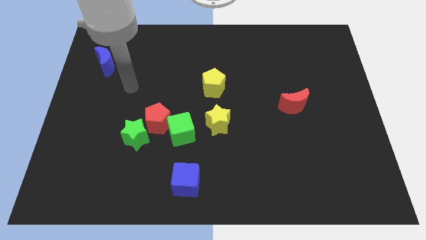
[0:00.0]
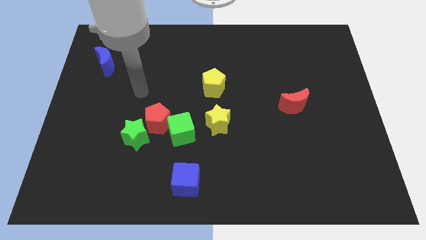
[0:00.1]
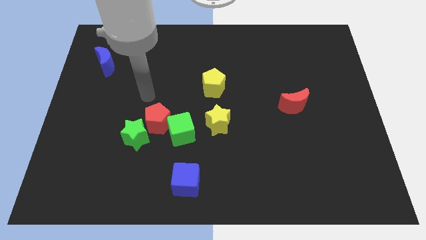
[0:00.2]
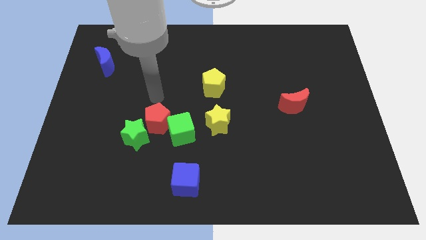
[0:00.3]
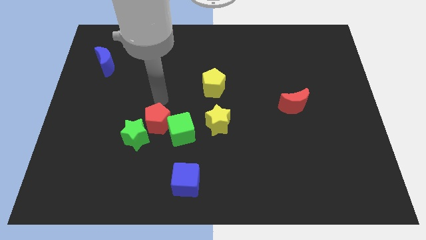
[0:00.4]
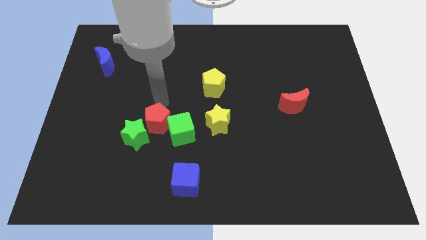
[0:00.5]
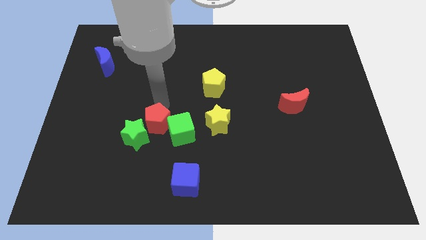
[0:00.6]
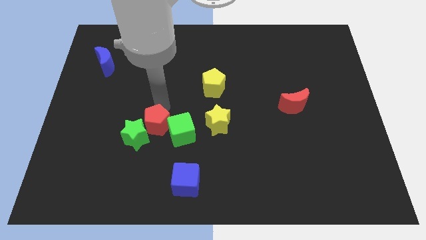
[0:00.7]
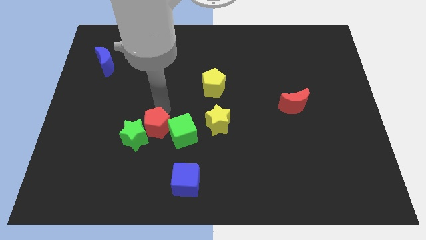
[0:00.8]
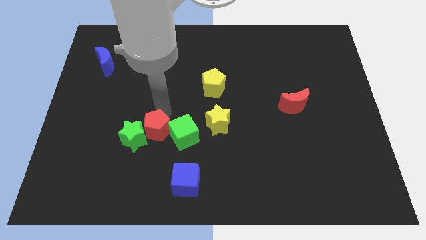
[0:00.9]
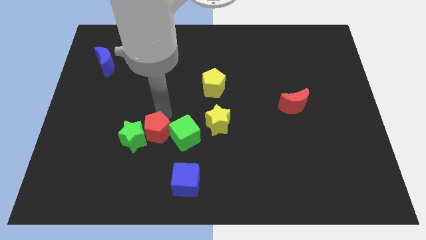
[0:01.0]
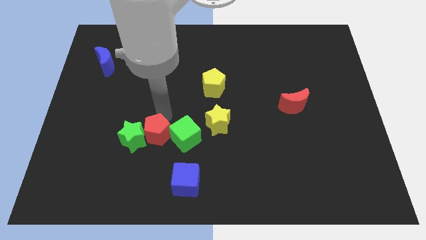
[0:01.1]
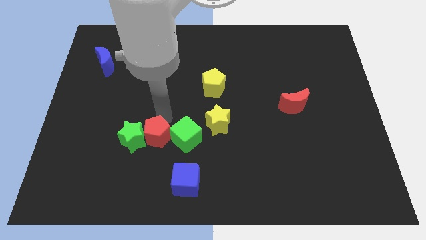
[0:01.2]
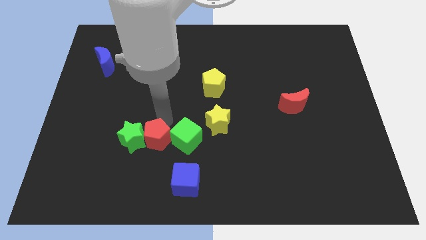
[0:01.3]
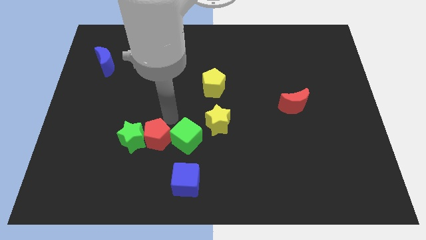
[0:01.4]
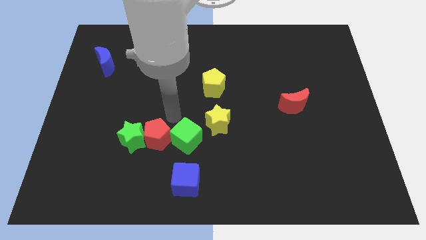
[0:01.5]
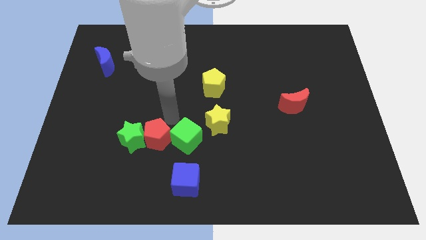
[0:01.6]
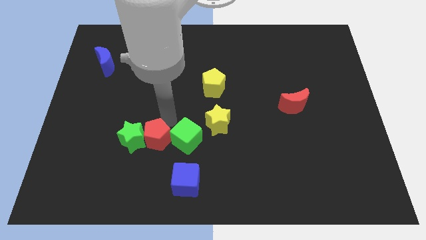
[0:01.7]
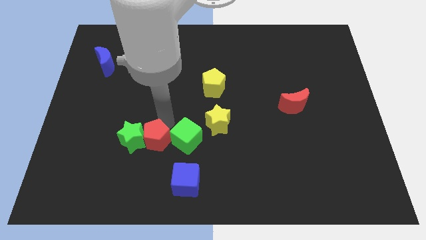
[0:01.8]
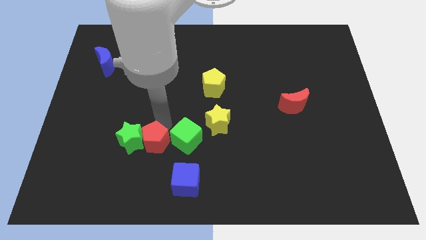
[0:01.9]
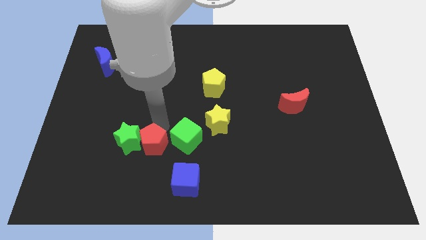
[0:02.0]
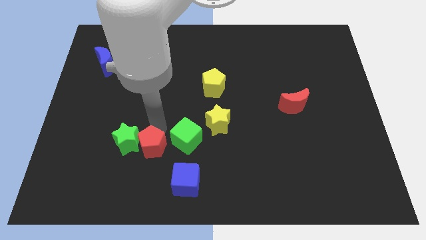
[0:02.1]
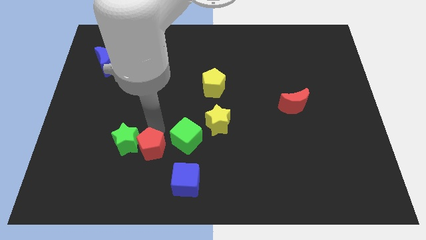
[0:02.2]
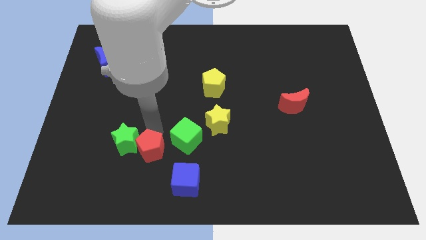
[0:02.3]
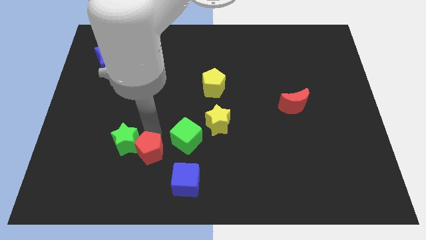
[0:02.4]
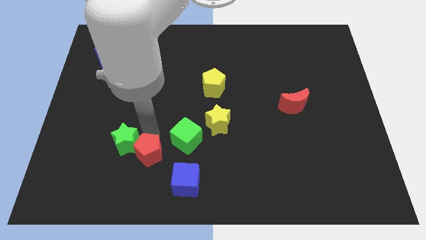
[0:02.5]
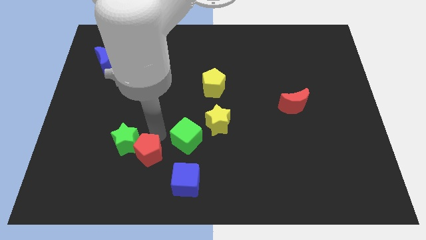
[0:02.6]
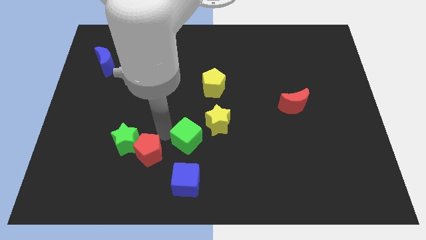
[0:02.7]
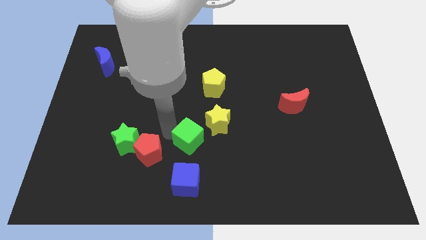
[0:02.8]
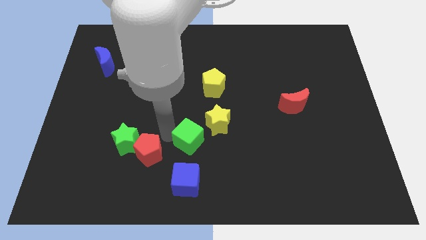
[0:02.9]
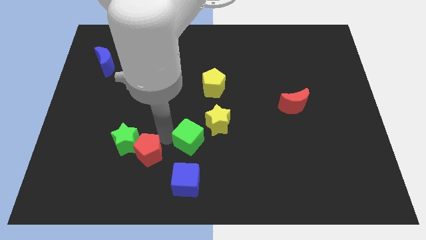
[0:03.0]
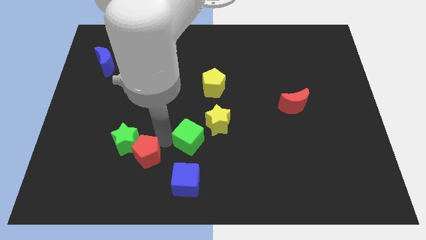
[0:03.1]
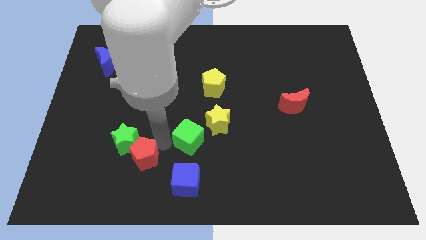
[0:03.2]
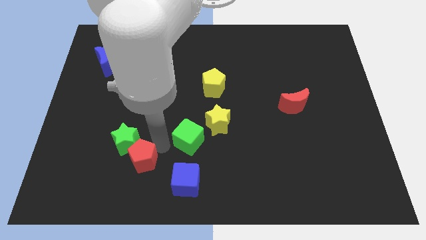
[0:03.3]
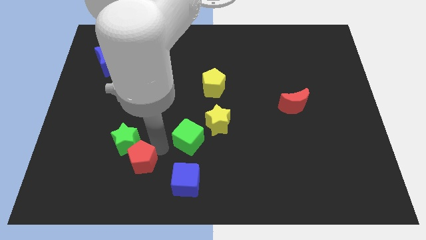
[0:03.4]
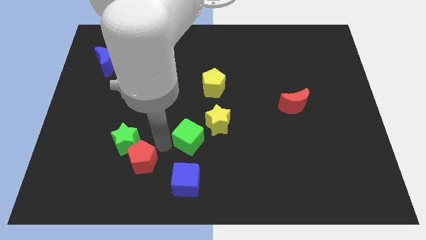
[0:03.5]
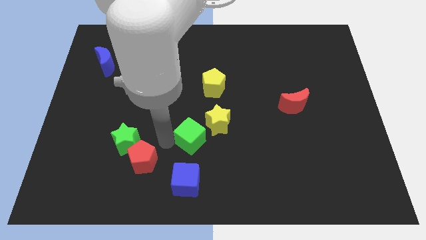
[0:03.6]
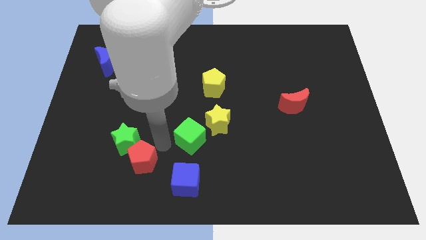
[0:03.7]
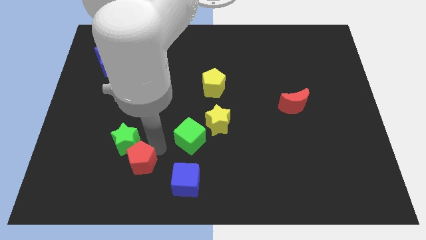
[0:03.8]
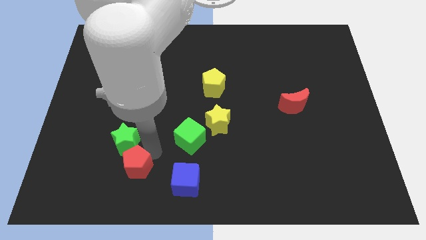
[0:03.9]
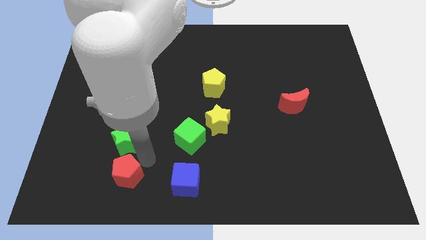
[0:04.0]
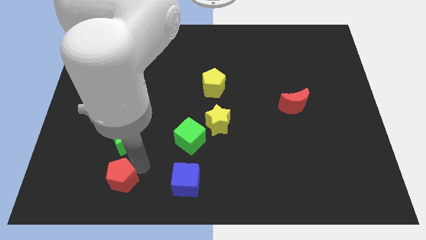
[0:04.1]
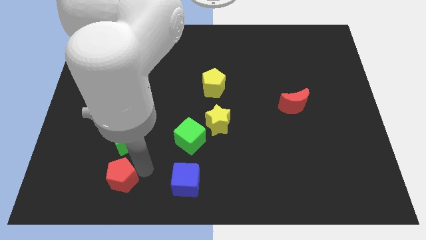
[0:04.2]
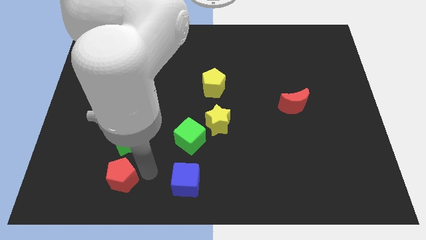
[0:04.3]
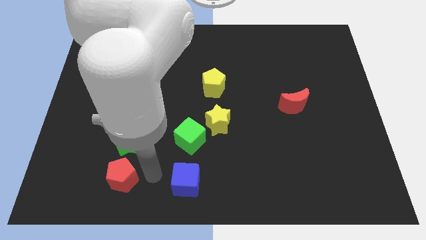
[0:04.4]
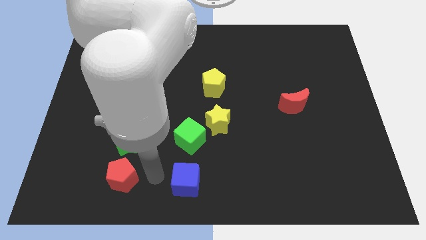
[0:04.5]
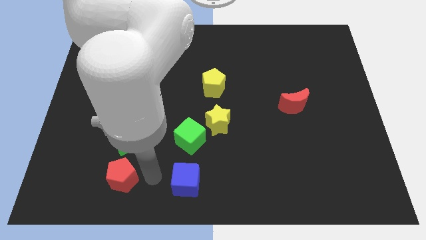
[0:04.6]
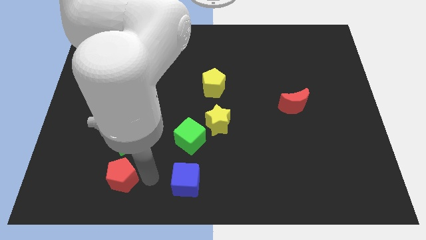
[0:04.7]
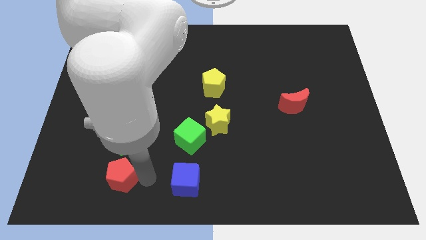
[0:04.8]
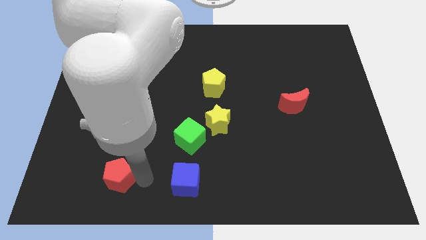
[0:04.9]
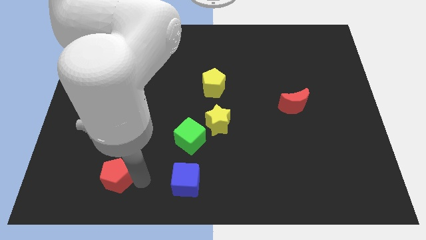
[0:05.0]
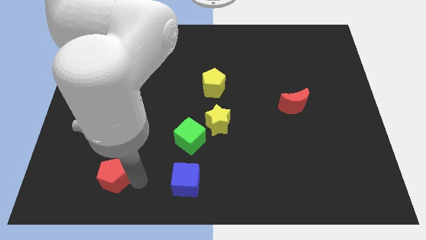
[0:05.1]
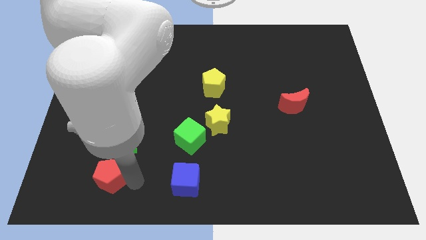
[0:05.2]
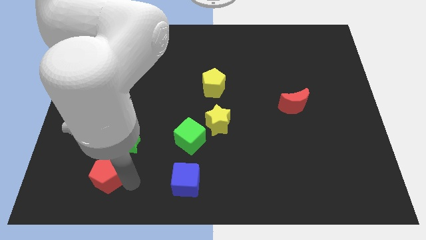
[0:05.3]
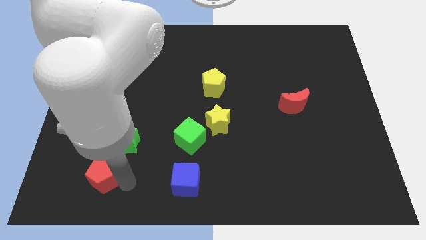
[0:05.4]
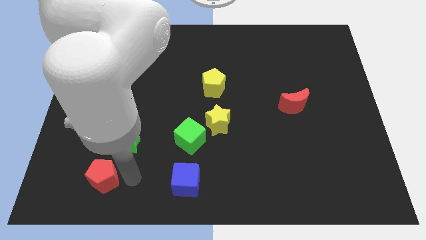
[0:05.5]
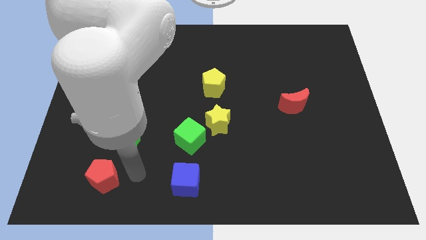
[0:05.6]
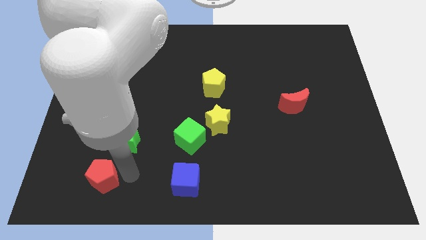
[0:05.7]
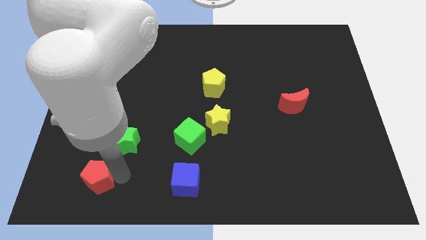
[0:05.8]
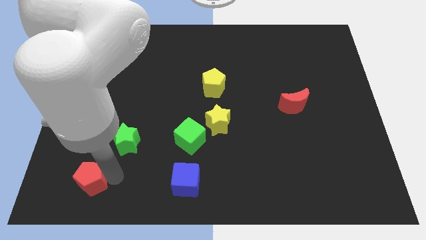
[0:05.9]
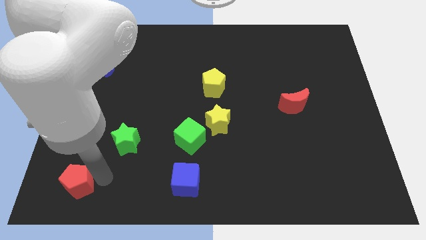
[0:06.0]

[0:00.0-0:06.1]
slide the red pentagon to the bottom left corner
